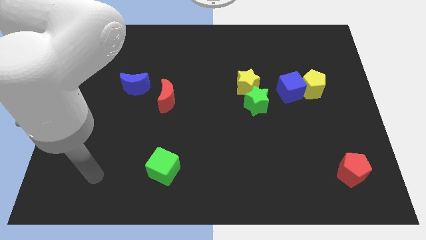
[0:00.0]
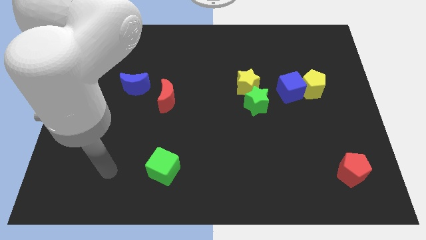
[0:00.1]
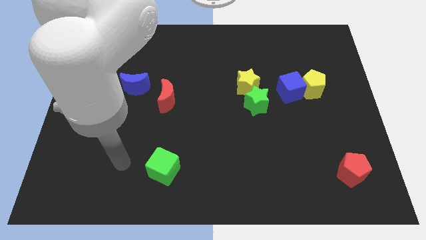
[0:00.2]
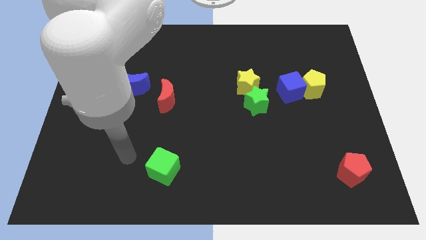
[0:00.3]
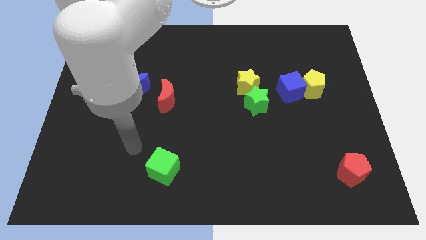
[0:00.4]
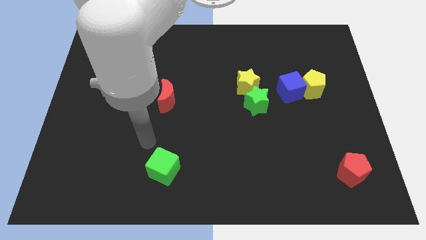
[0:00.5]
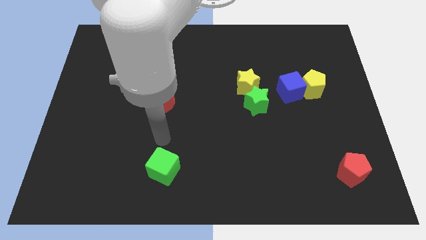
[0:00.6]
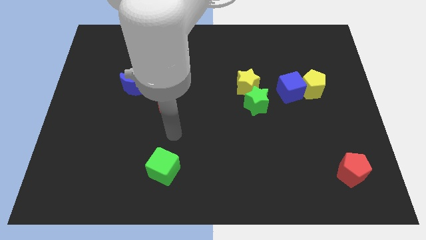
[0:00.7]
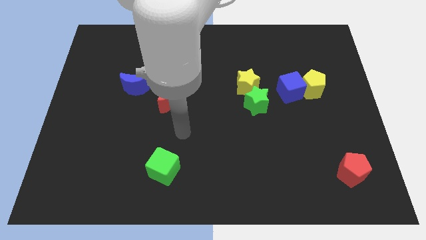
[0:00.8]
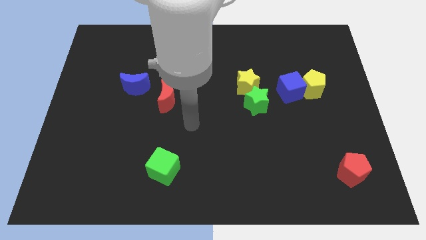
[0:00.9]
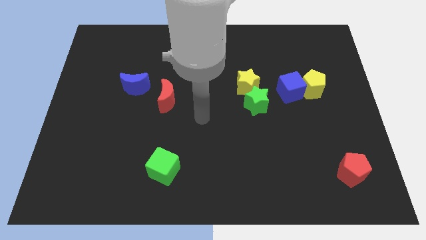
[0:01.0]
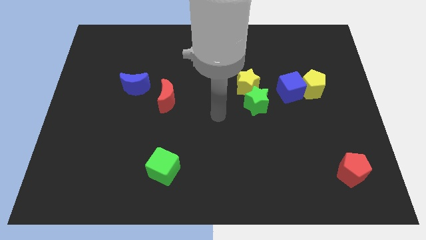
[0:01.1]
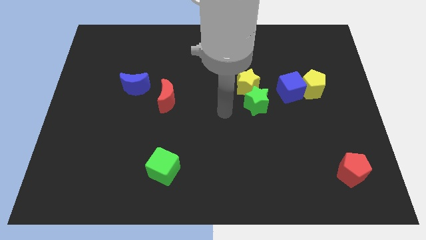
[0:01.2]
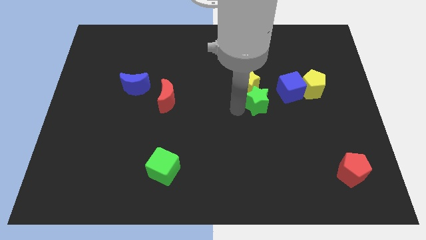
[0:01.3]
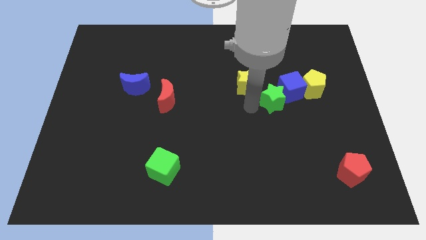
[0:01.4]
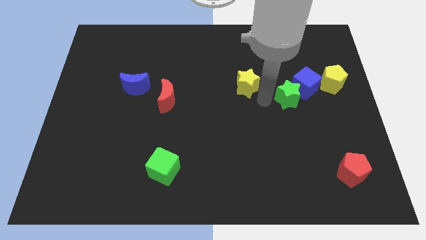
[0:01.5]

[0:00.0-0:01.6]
pull the yellow star apart from the green star

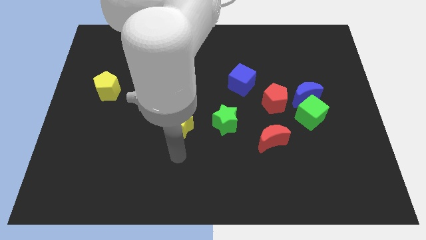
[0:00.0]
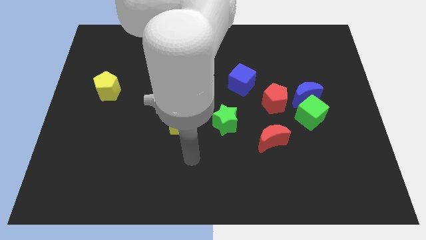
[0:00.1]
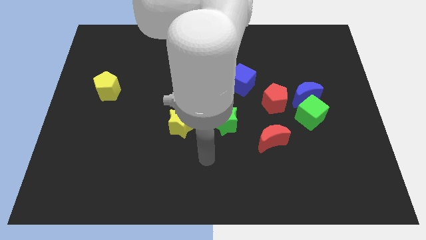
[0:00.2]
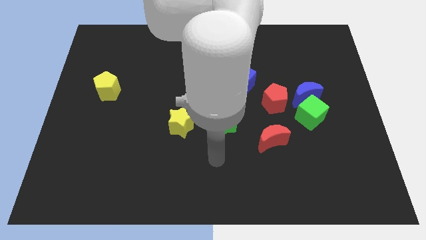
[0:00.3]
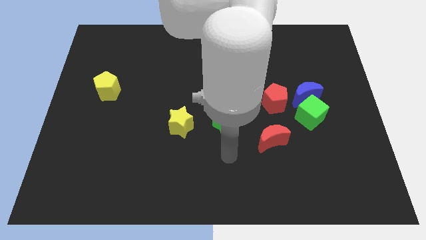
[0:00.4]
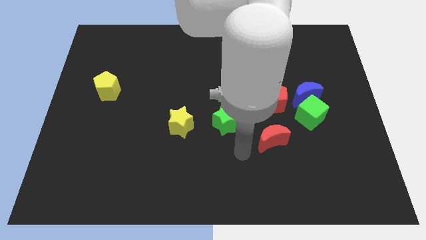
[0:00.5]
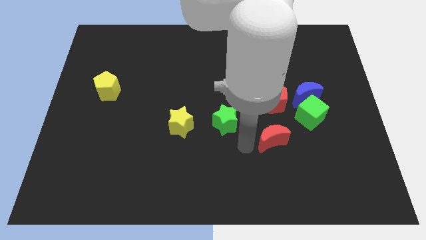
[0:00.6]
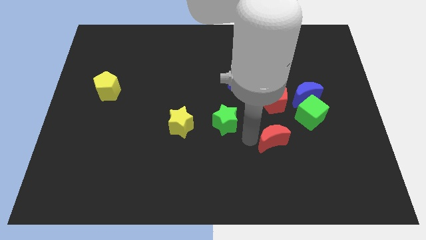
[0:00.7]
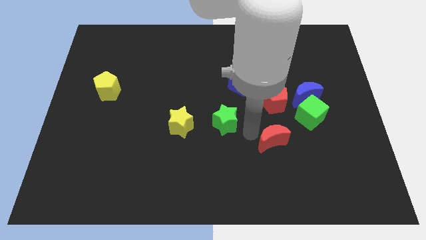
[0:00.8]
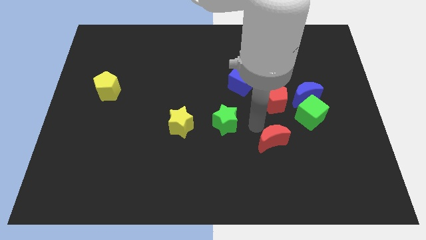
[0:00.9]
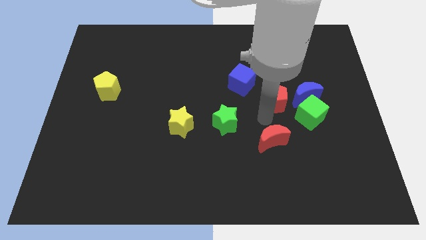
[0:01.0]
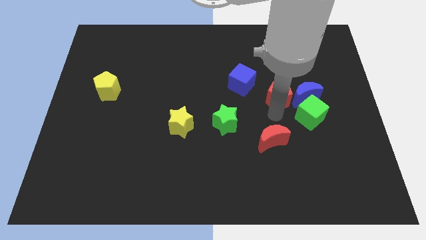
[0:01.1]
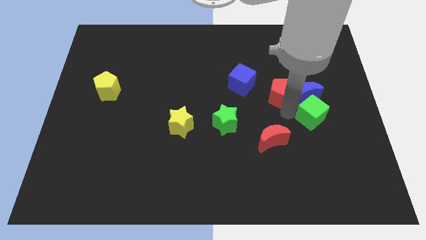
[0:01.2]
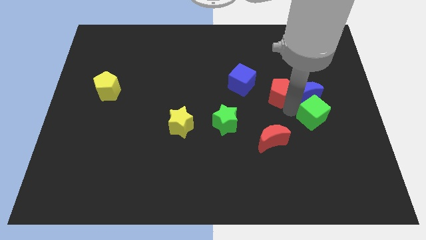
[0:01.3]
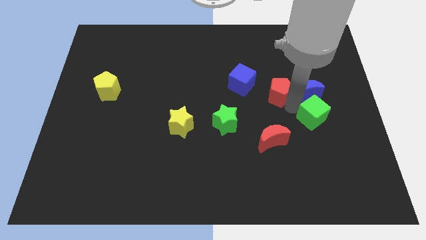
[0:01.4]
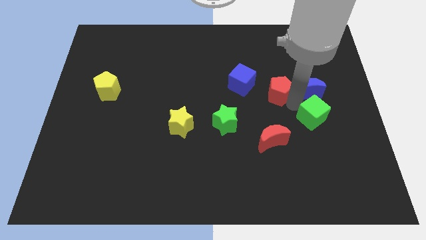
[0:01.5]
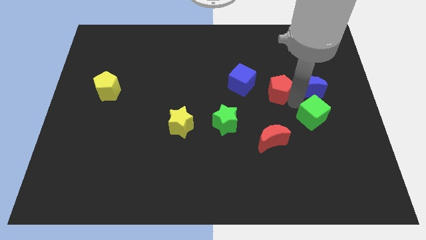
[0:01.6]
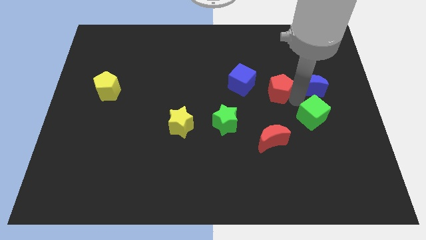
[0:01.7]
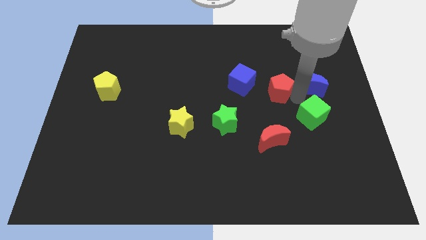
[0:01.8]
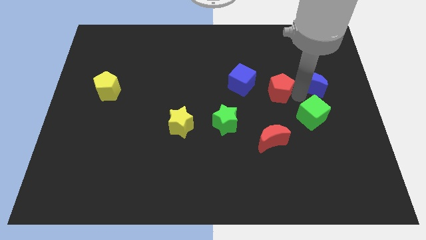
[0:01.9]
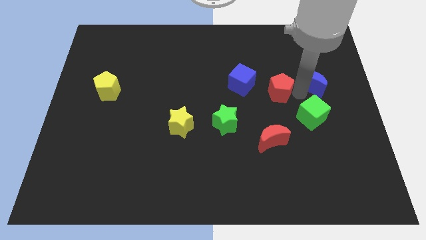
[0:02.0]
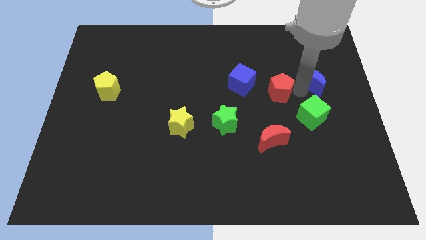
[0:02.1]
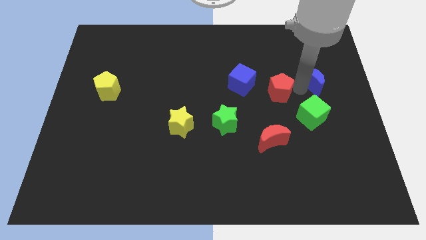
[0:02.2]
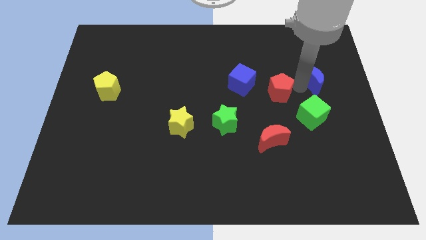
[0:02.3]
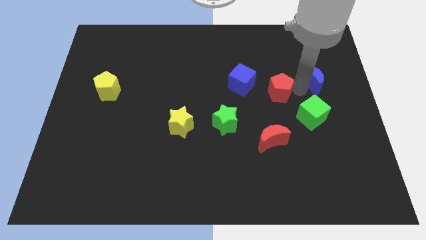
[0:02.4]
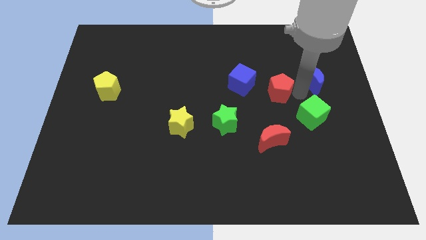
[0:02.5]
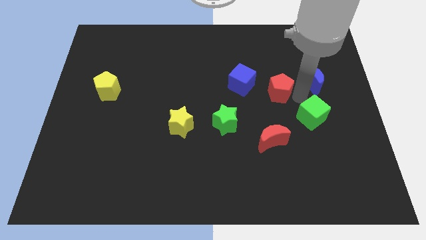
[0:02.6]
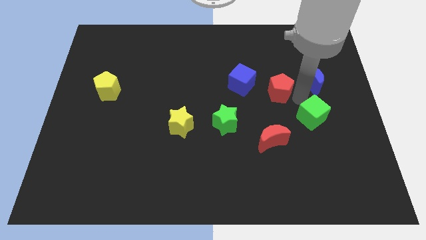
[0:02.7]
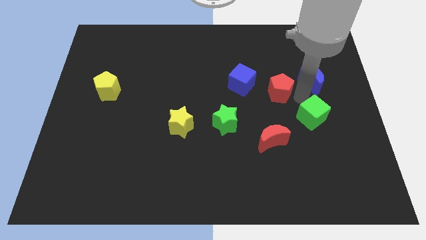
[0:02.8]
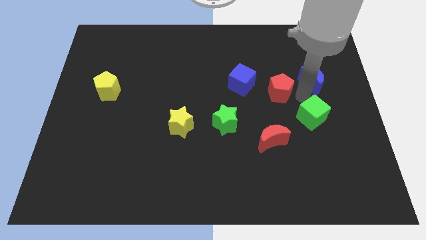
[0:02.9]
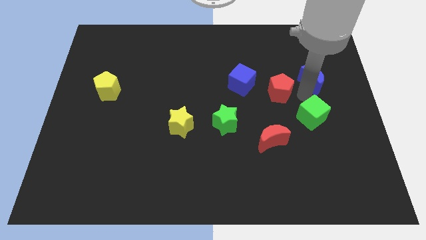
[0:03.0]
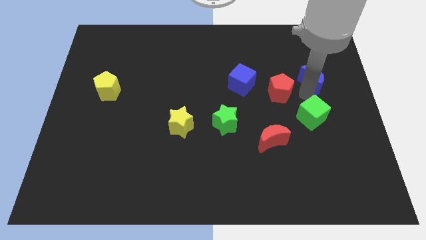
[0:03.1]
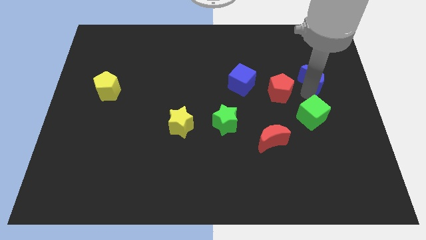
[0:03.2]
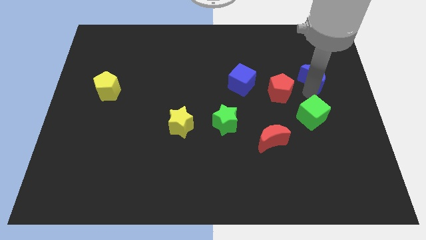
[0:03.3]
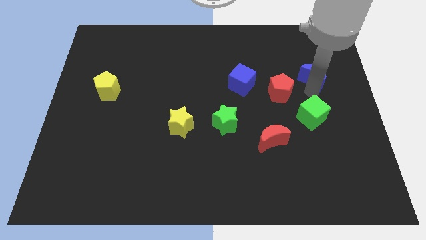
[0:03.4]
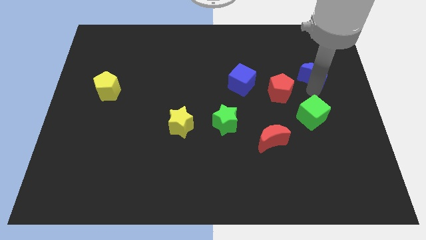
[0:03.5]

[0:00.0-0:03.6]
pull the blue moon apart from the green cube and red pentagon

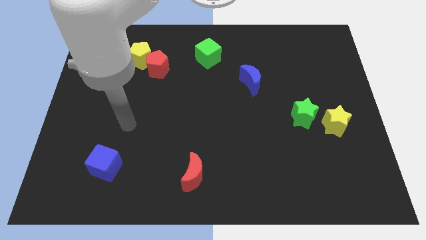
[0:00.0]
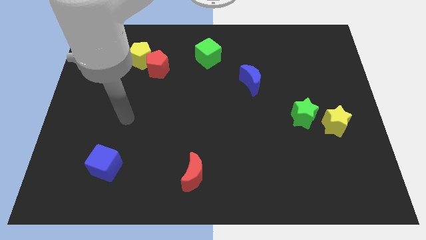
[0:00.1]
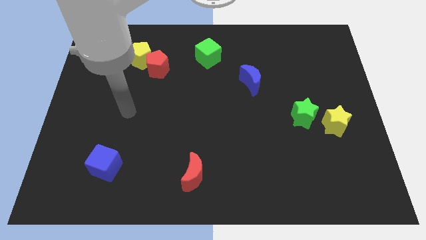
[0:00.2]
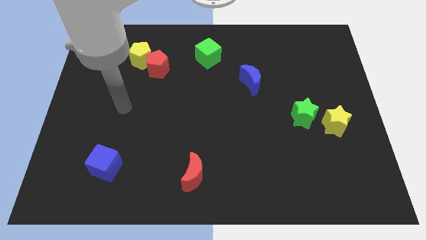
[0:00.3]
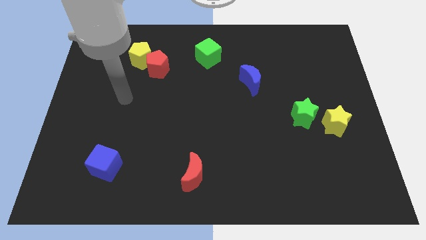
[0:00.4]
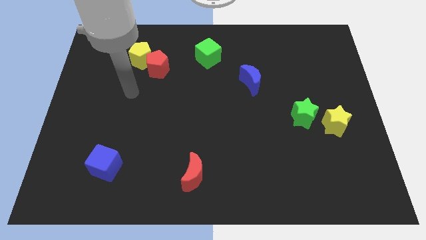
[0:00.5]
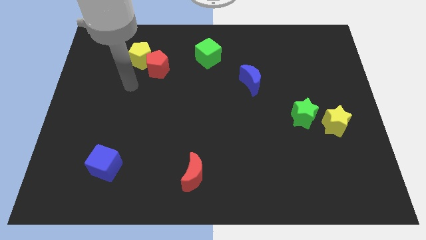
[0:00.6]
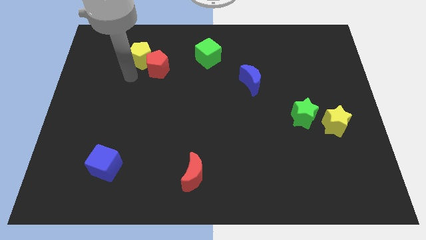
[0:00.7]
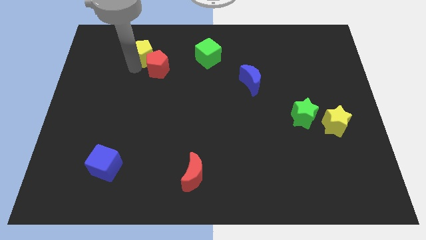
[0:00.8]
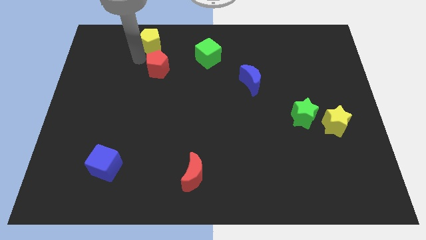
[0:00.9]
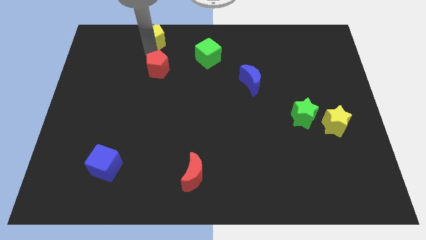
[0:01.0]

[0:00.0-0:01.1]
separate the red pentagon from the yellow pentagon

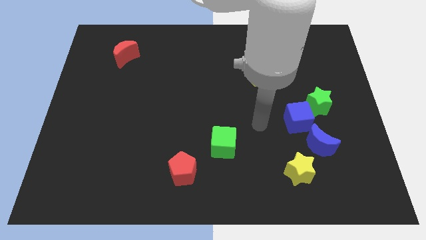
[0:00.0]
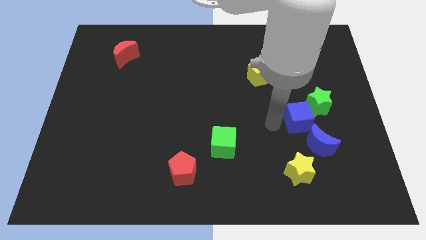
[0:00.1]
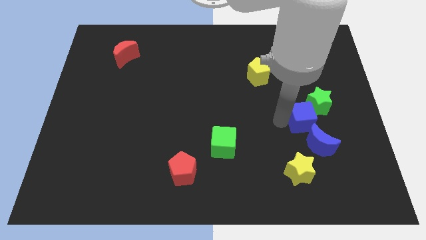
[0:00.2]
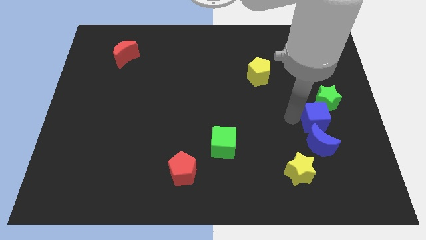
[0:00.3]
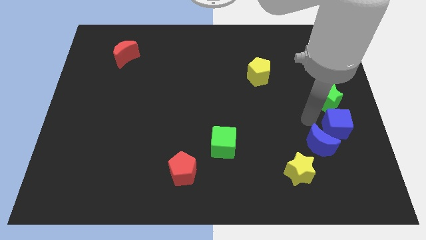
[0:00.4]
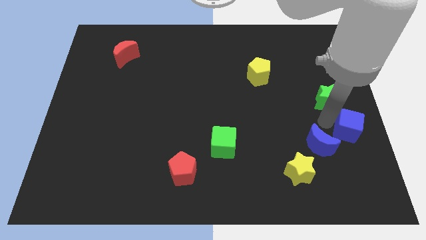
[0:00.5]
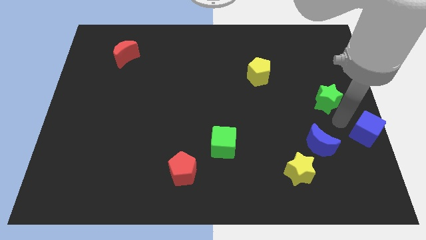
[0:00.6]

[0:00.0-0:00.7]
separate the green star from the blue cube

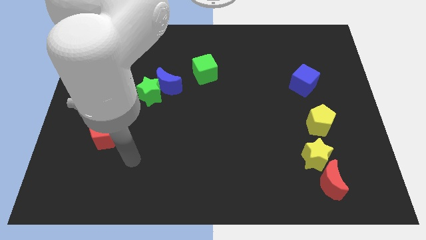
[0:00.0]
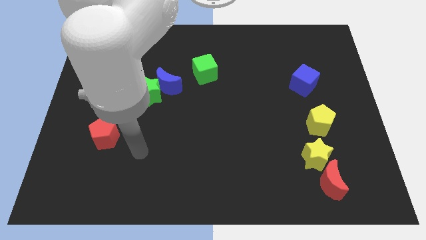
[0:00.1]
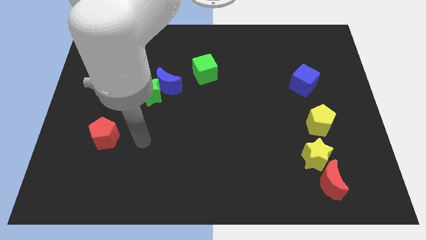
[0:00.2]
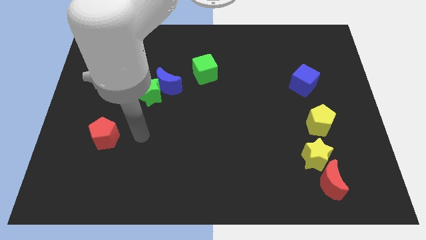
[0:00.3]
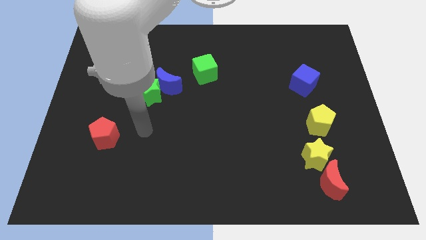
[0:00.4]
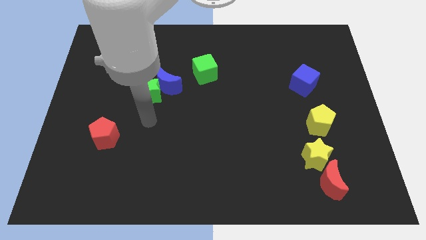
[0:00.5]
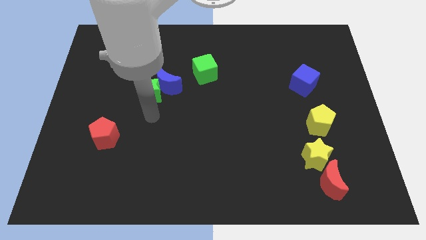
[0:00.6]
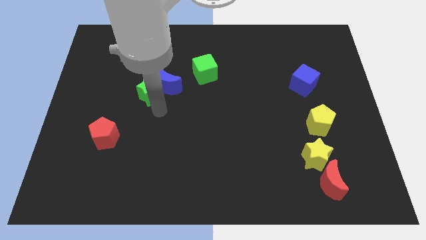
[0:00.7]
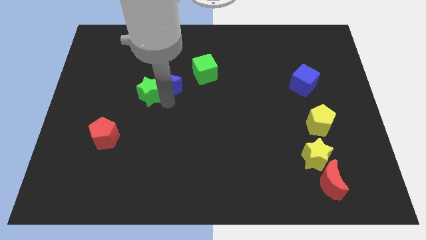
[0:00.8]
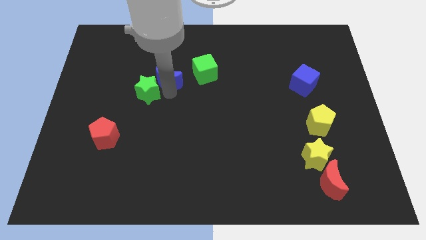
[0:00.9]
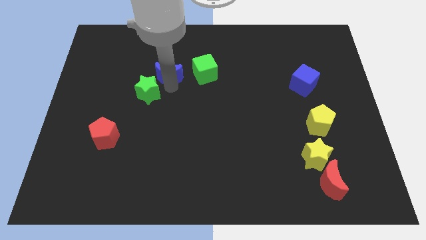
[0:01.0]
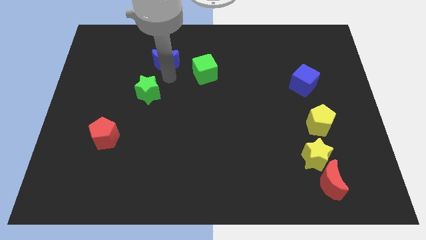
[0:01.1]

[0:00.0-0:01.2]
pull the green star apart from the blue moon

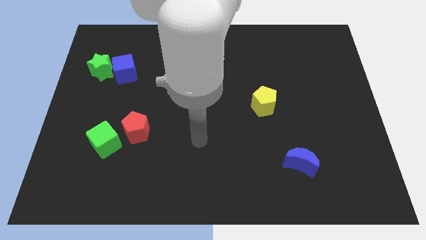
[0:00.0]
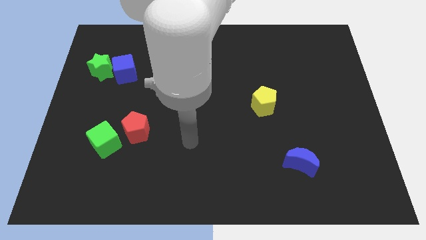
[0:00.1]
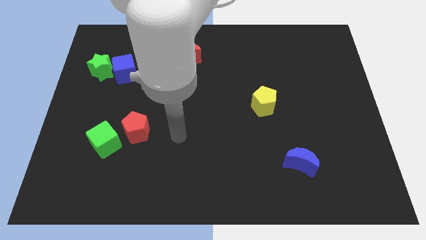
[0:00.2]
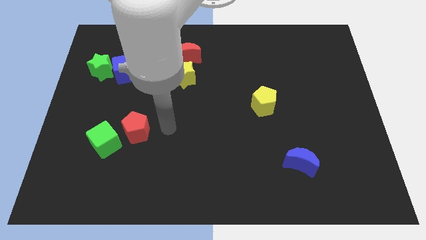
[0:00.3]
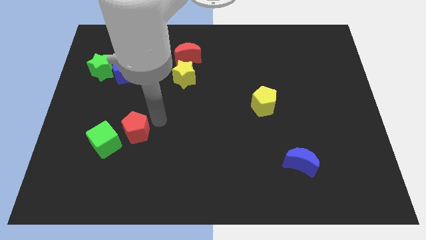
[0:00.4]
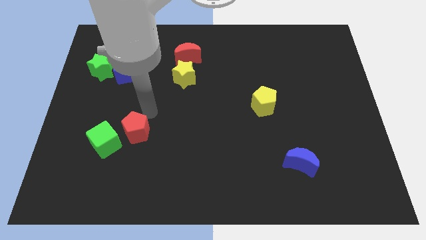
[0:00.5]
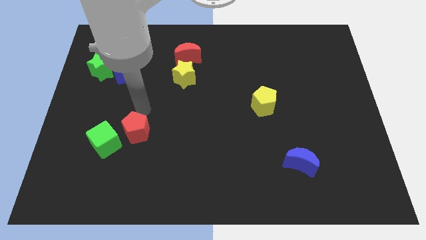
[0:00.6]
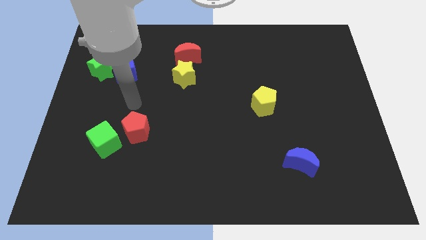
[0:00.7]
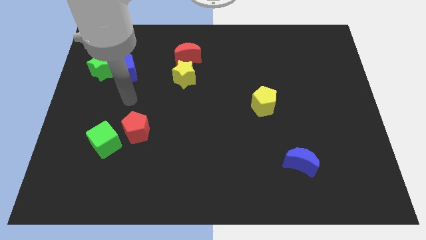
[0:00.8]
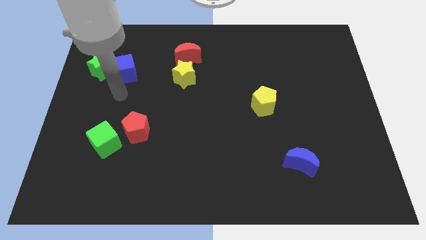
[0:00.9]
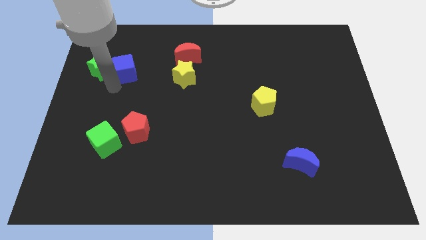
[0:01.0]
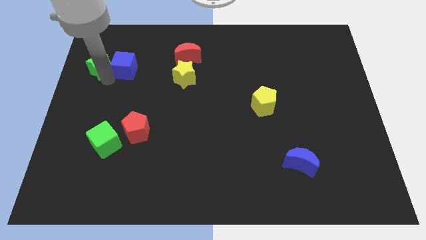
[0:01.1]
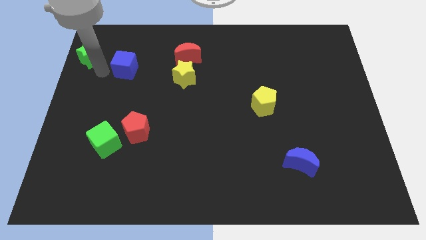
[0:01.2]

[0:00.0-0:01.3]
pull the blue cube apart from the green star
